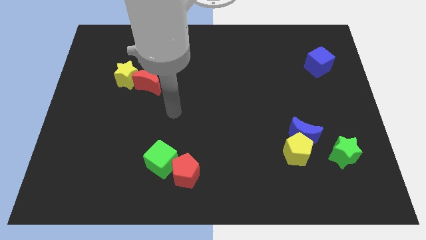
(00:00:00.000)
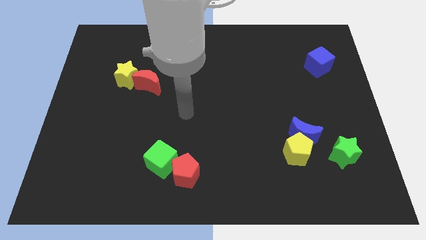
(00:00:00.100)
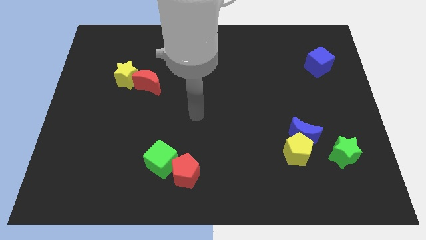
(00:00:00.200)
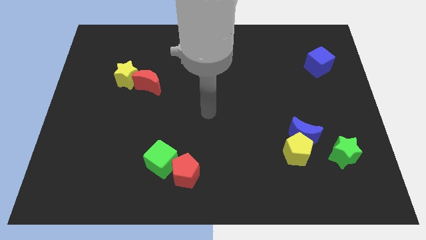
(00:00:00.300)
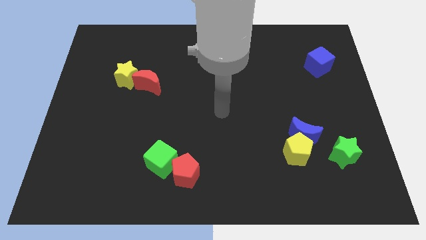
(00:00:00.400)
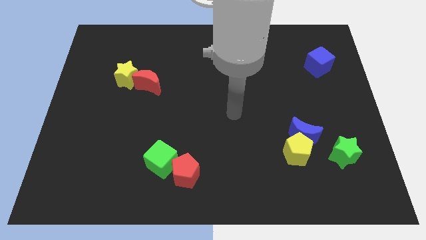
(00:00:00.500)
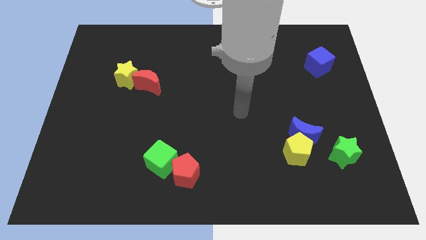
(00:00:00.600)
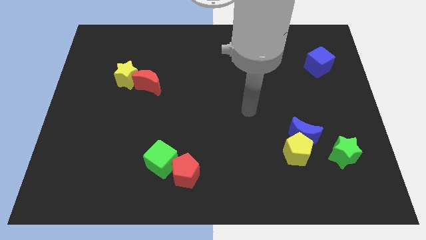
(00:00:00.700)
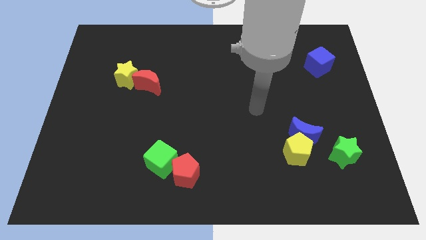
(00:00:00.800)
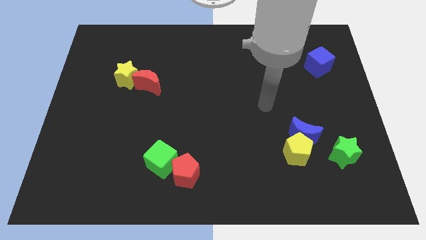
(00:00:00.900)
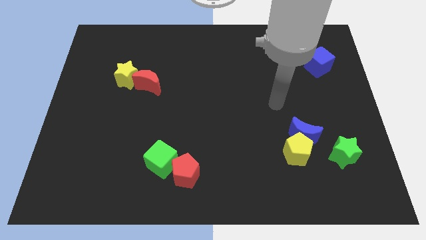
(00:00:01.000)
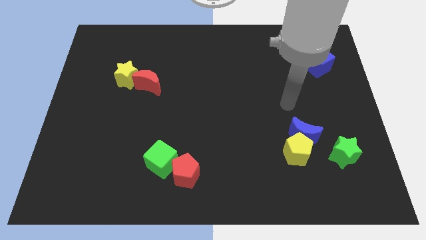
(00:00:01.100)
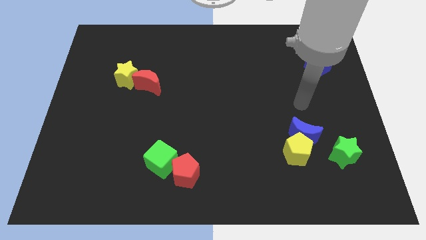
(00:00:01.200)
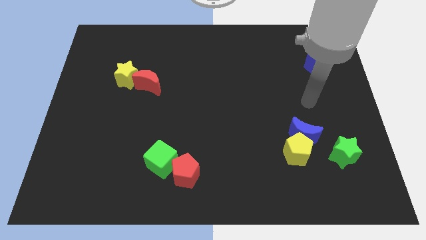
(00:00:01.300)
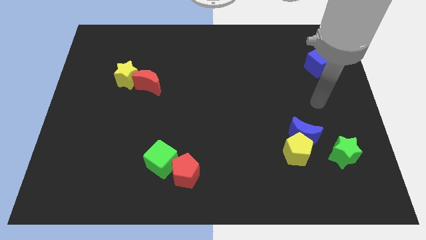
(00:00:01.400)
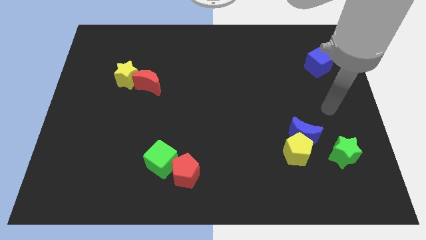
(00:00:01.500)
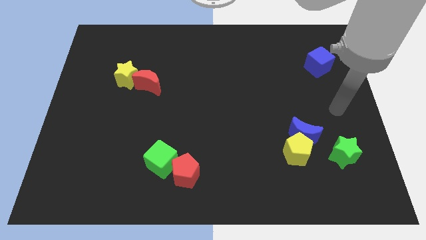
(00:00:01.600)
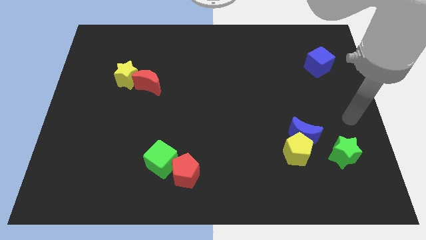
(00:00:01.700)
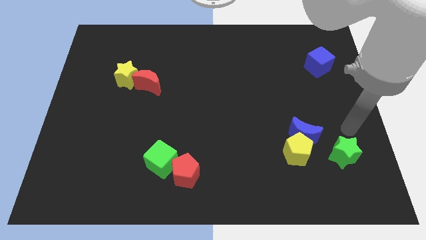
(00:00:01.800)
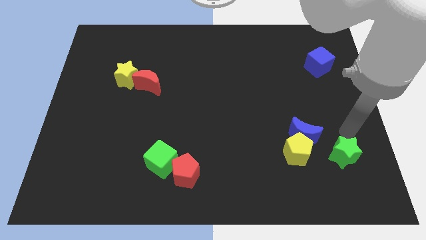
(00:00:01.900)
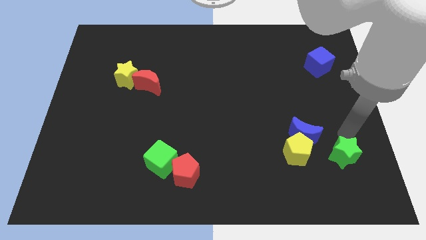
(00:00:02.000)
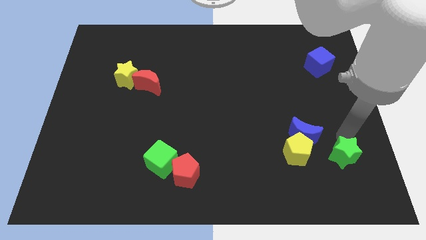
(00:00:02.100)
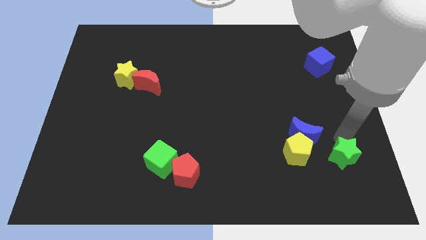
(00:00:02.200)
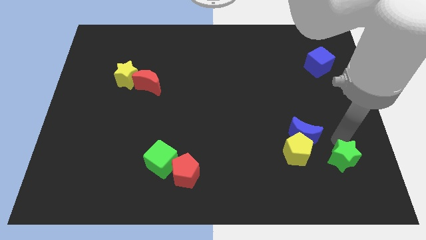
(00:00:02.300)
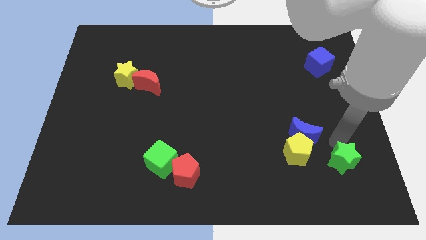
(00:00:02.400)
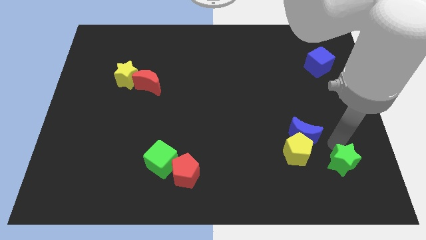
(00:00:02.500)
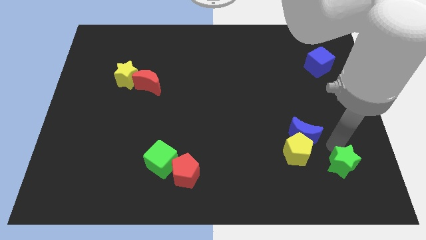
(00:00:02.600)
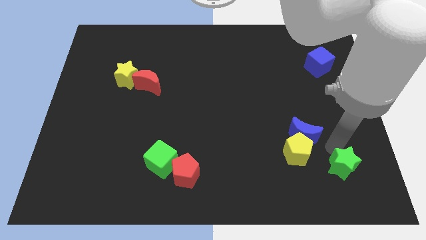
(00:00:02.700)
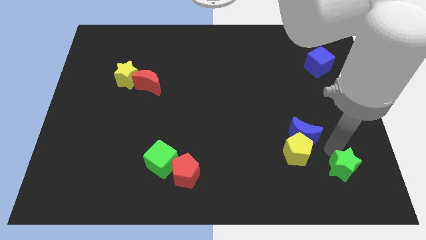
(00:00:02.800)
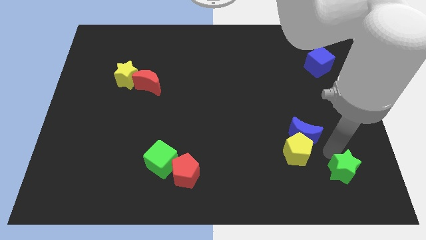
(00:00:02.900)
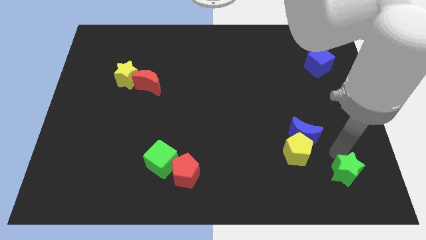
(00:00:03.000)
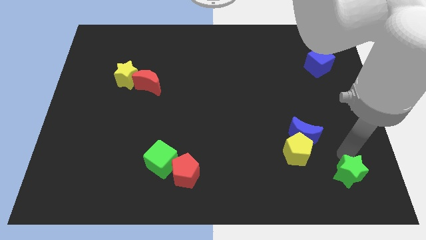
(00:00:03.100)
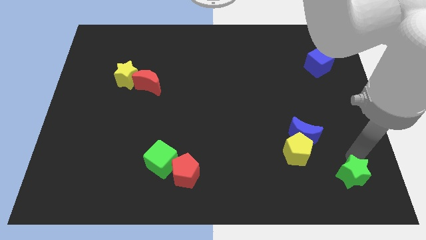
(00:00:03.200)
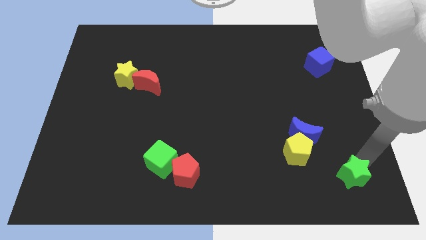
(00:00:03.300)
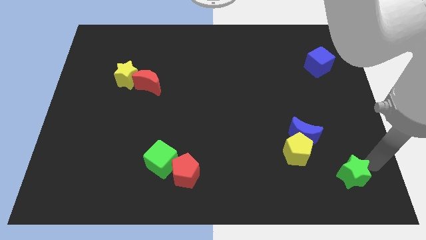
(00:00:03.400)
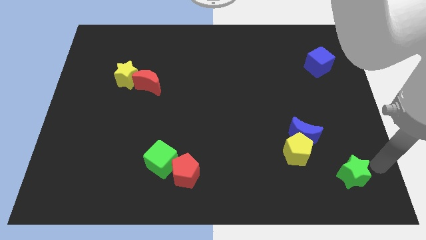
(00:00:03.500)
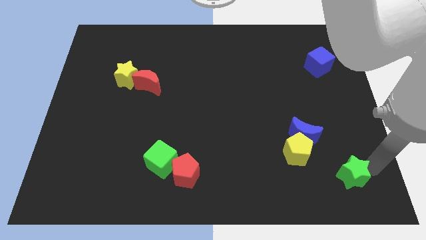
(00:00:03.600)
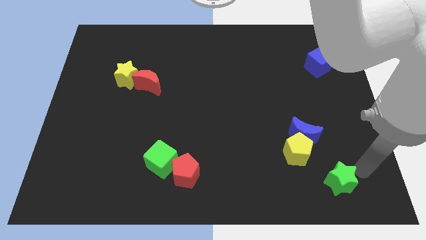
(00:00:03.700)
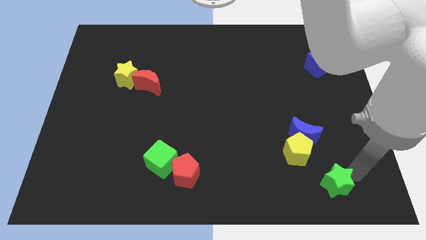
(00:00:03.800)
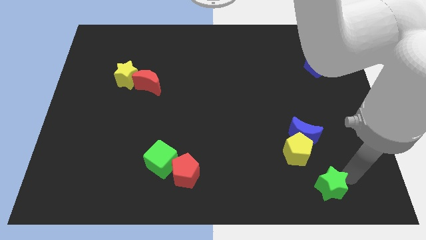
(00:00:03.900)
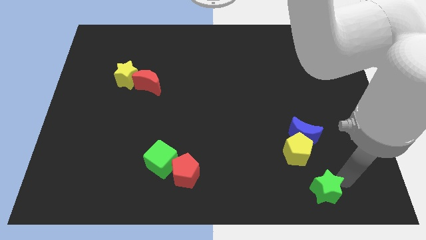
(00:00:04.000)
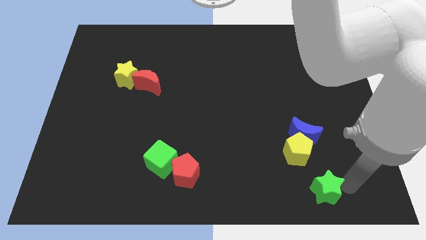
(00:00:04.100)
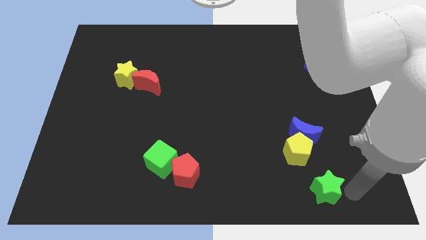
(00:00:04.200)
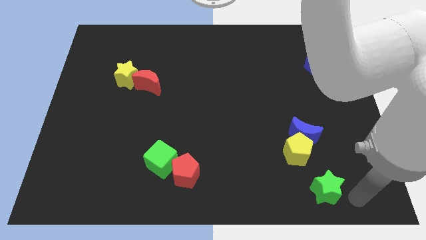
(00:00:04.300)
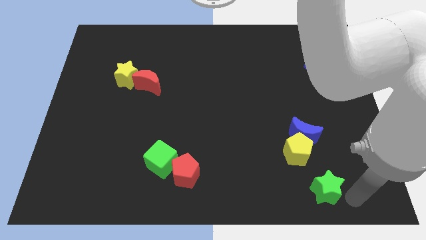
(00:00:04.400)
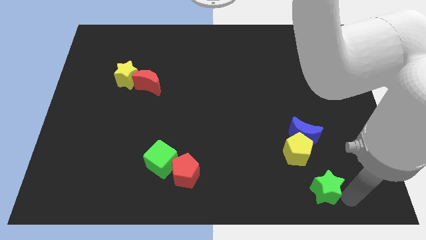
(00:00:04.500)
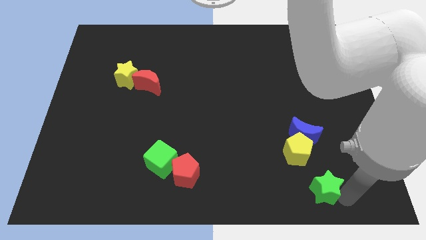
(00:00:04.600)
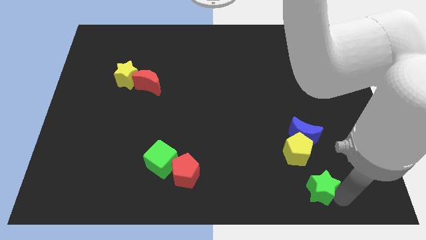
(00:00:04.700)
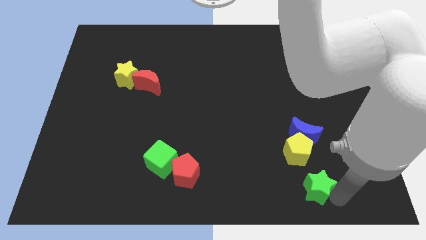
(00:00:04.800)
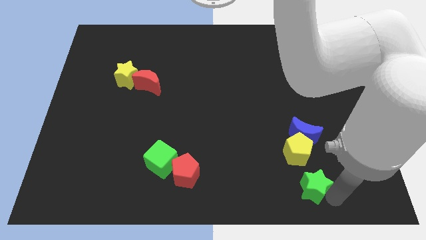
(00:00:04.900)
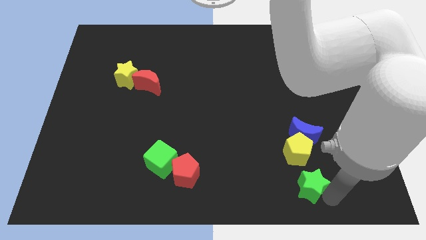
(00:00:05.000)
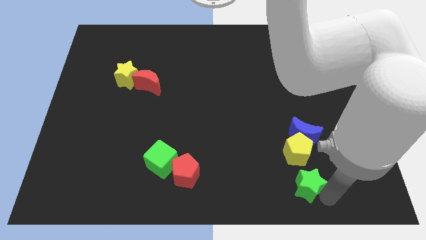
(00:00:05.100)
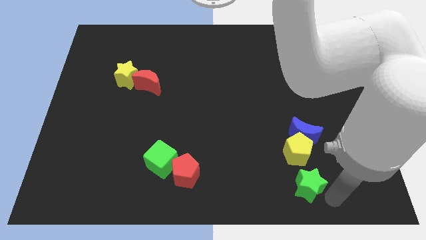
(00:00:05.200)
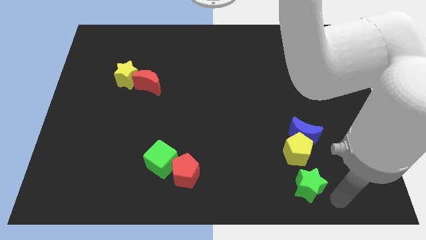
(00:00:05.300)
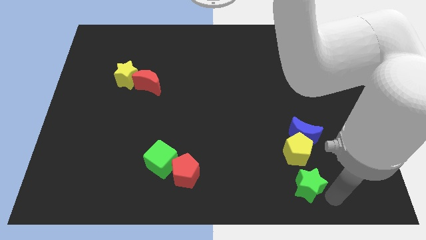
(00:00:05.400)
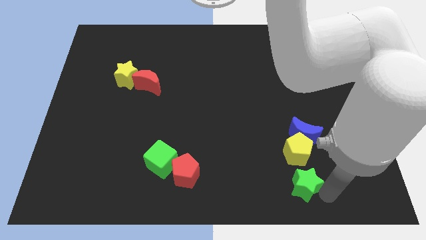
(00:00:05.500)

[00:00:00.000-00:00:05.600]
slightly move the green star to the left

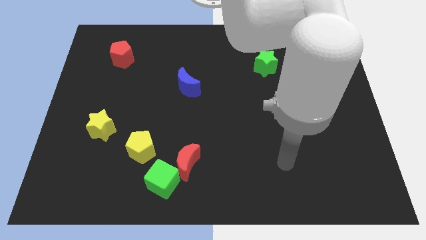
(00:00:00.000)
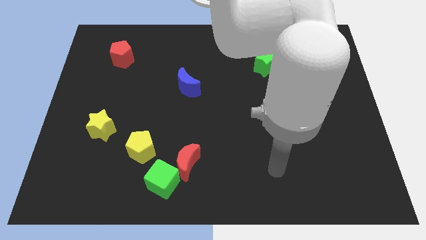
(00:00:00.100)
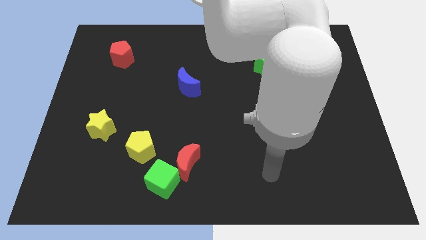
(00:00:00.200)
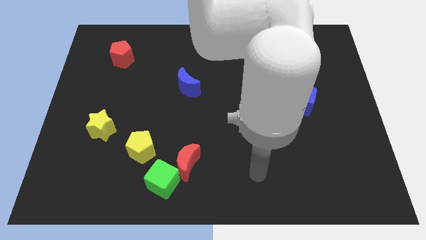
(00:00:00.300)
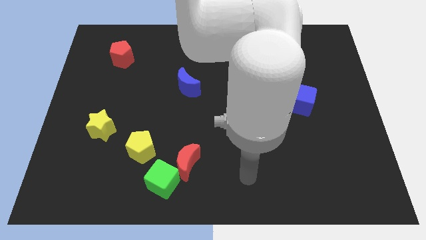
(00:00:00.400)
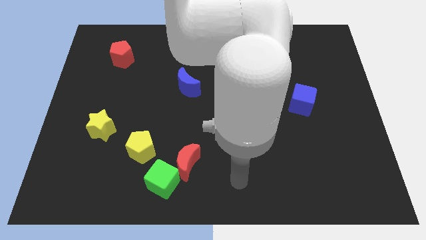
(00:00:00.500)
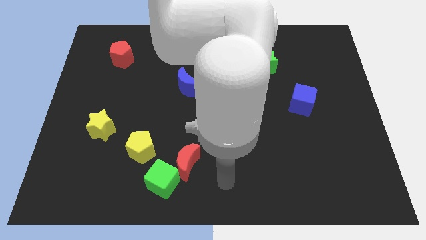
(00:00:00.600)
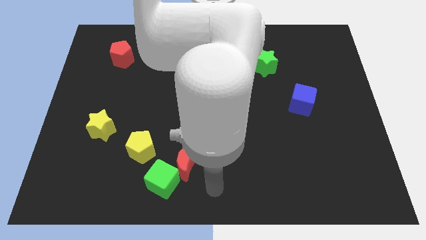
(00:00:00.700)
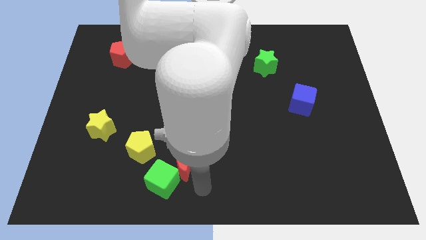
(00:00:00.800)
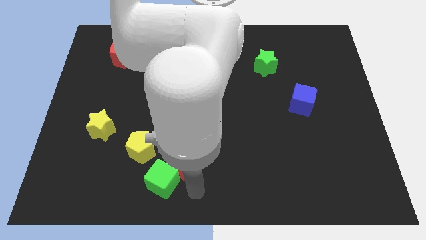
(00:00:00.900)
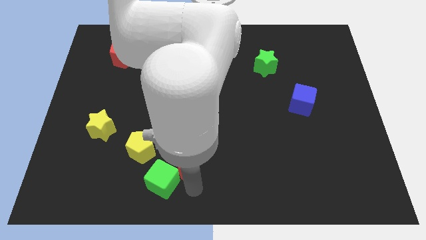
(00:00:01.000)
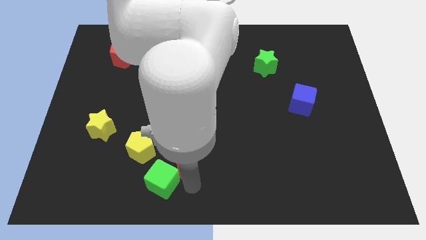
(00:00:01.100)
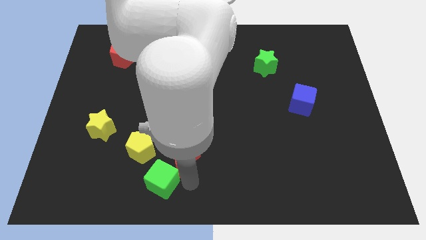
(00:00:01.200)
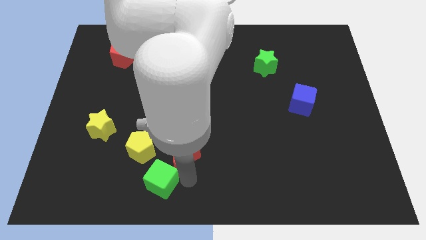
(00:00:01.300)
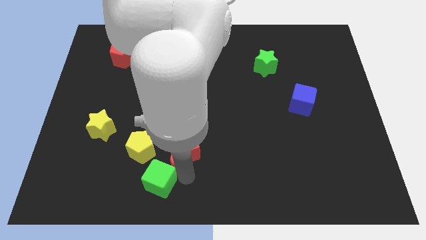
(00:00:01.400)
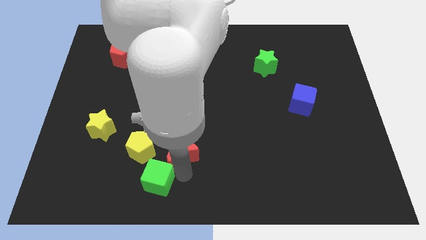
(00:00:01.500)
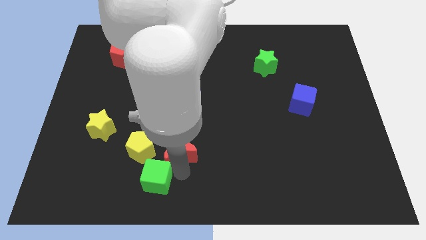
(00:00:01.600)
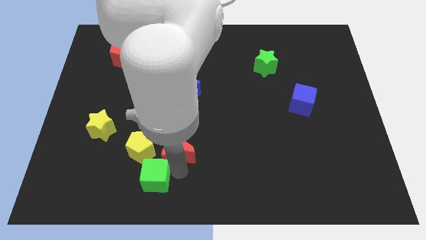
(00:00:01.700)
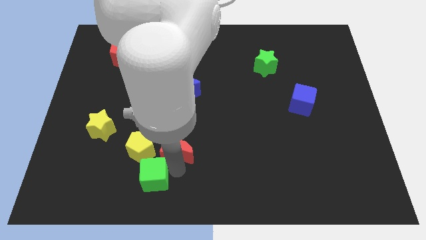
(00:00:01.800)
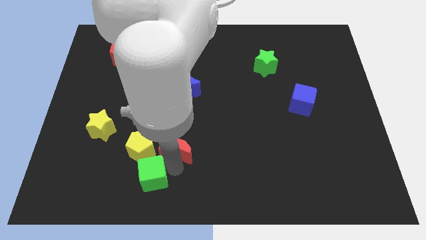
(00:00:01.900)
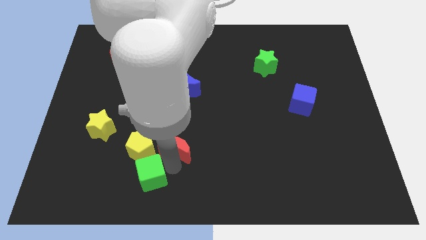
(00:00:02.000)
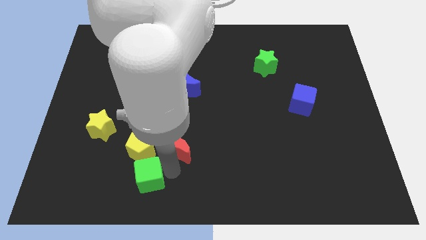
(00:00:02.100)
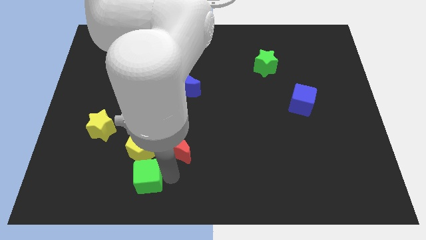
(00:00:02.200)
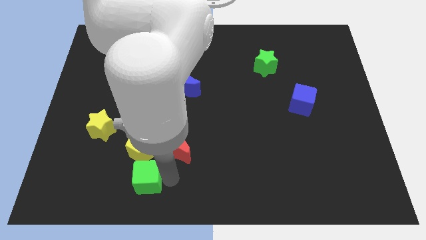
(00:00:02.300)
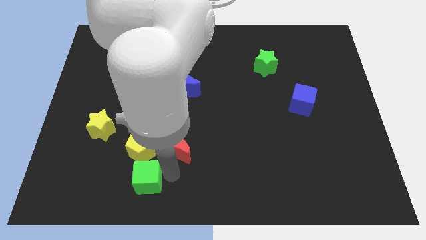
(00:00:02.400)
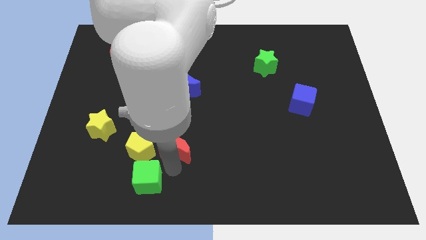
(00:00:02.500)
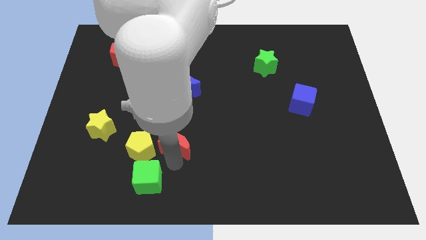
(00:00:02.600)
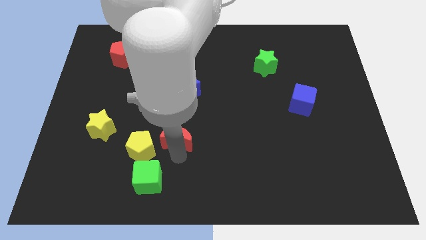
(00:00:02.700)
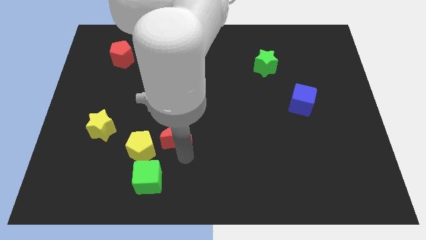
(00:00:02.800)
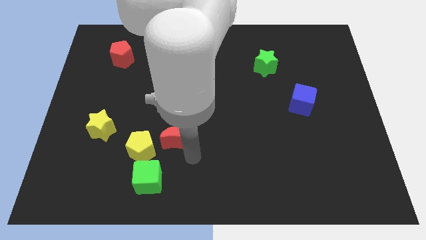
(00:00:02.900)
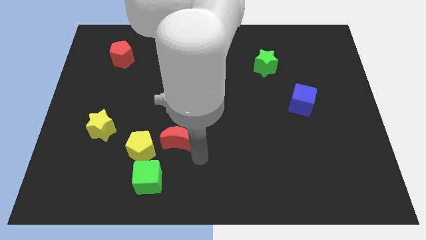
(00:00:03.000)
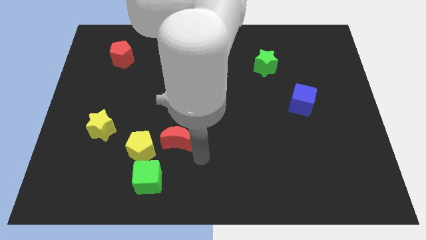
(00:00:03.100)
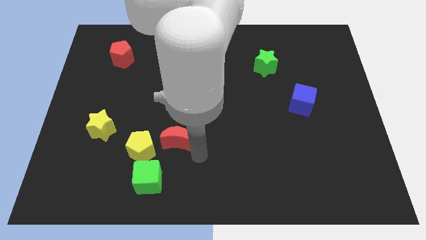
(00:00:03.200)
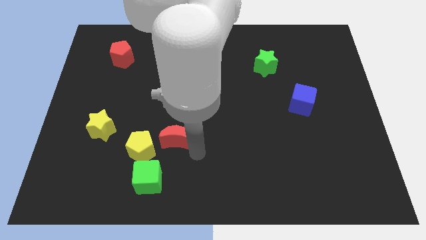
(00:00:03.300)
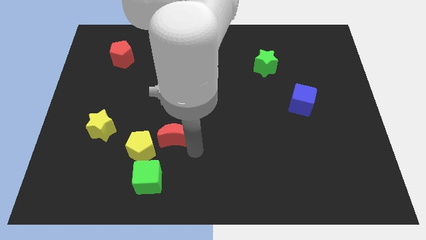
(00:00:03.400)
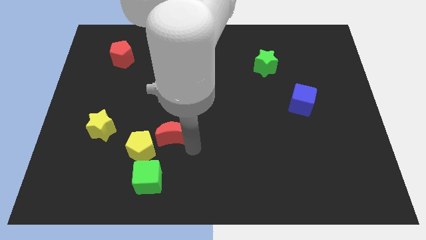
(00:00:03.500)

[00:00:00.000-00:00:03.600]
push the red moon up and left diagonally somewhat
